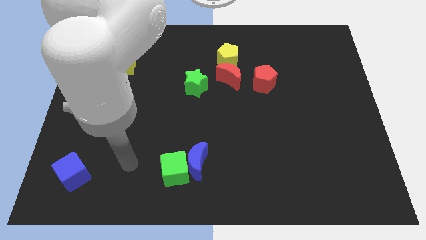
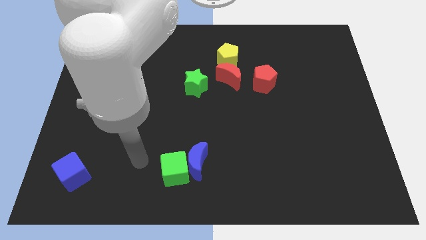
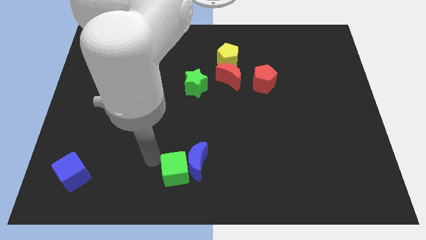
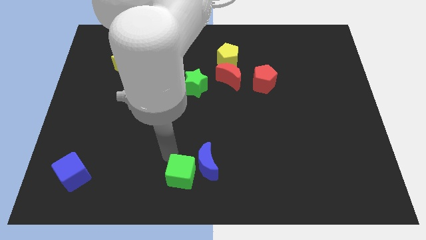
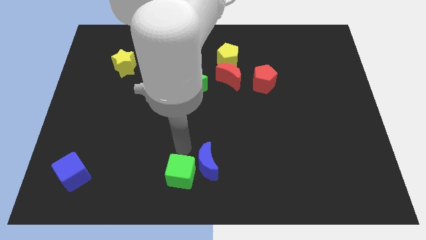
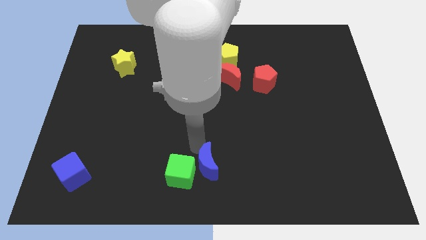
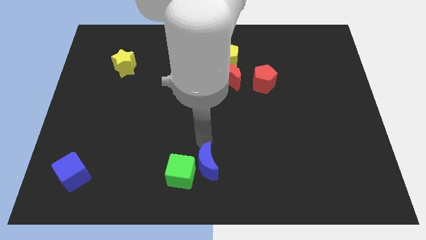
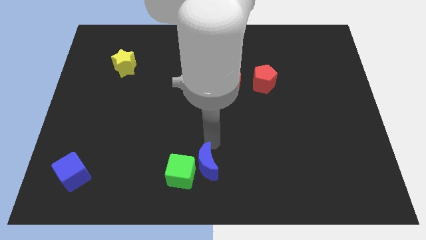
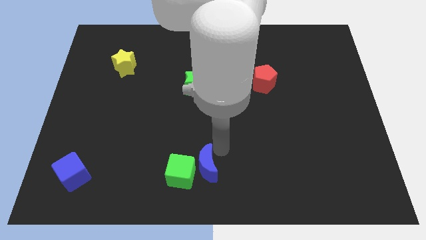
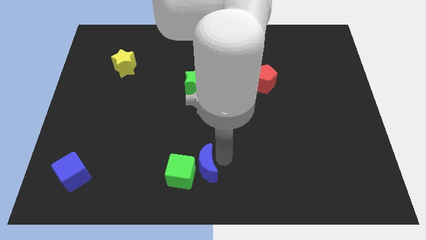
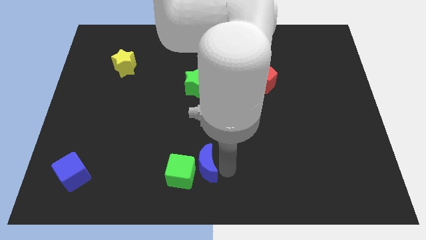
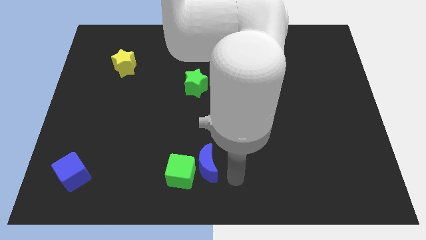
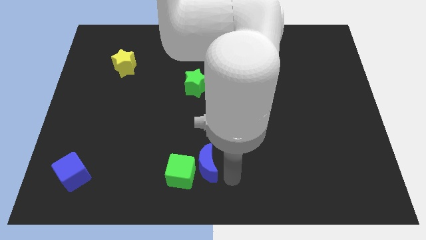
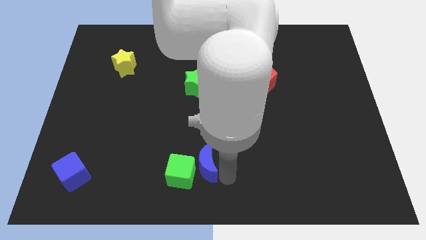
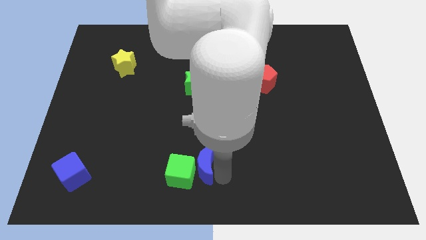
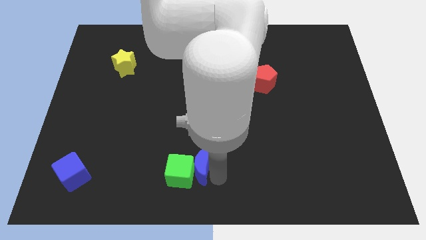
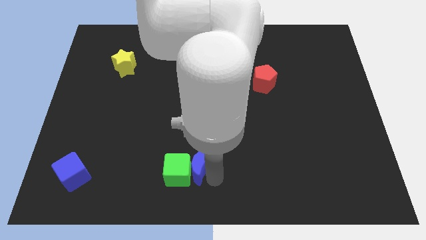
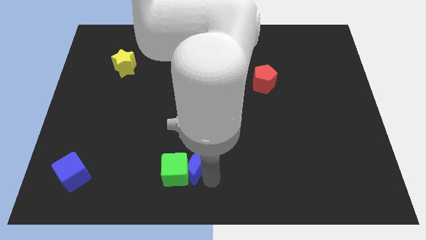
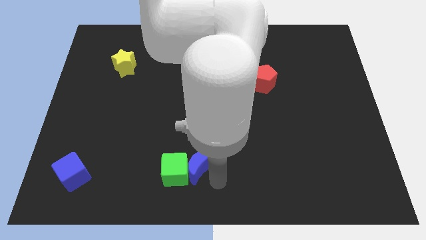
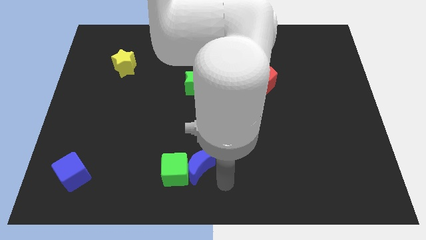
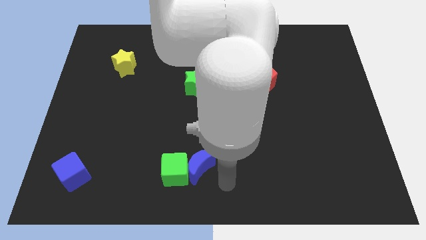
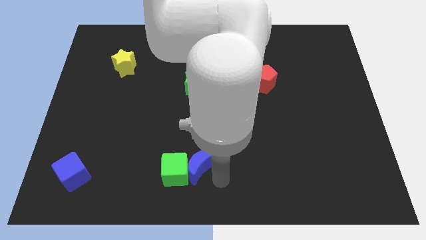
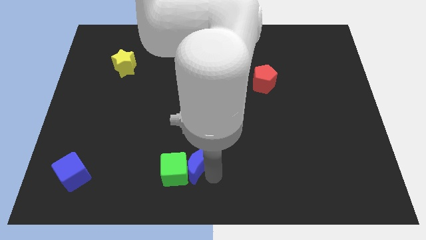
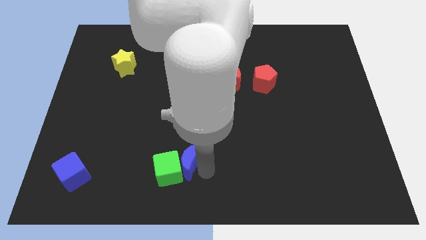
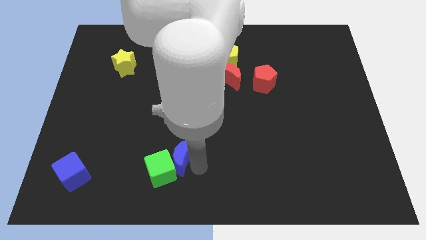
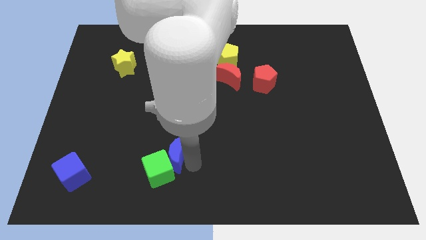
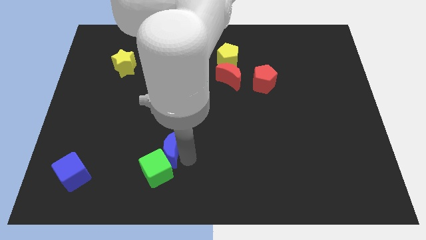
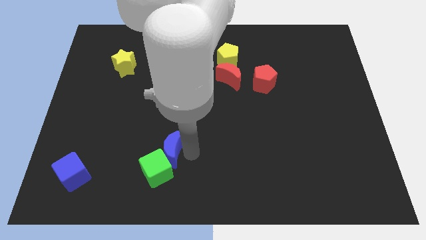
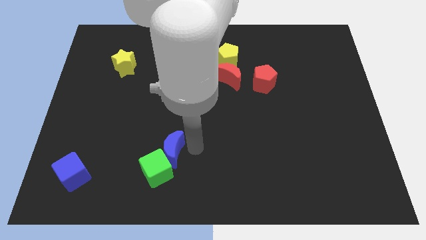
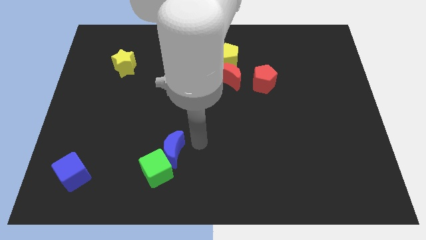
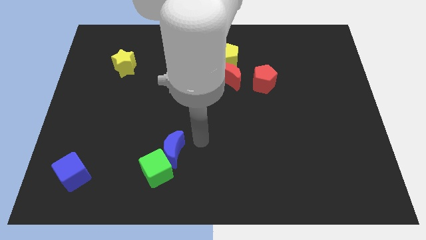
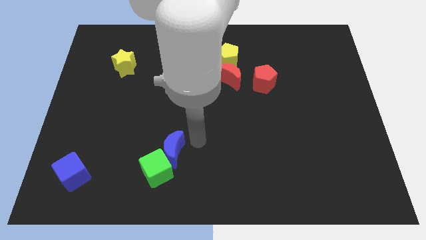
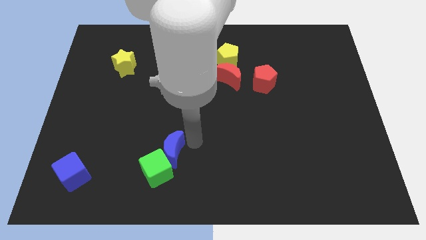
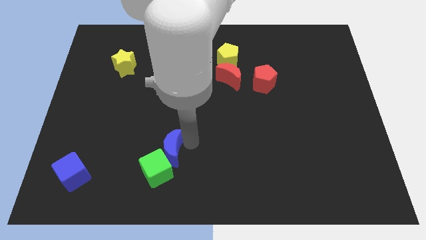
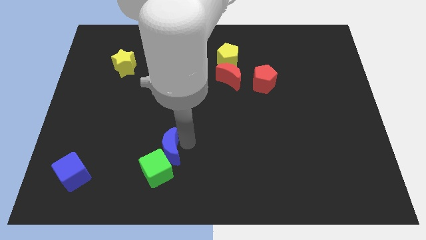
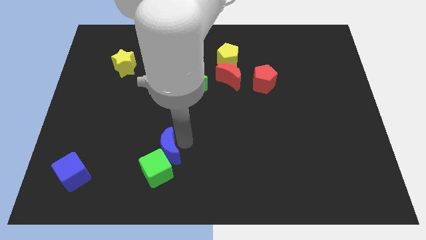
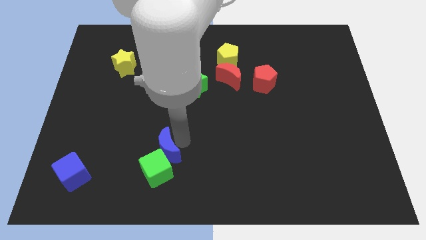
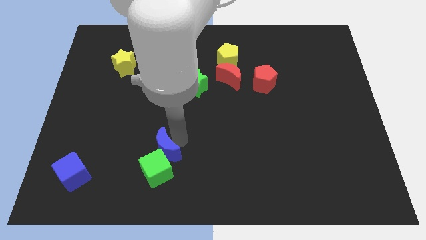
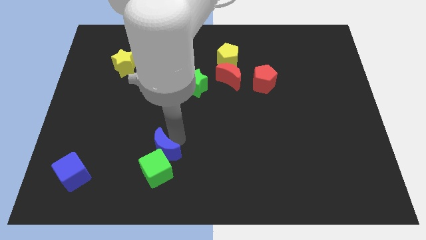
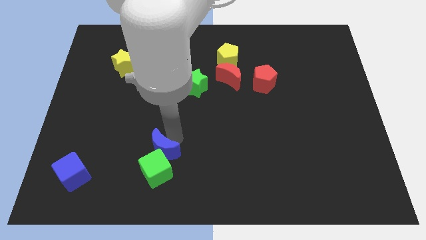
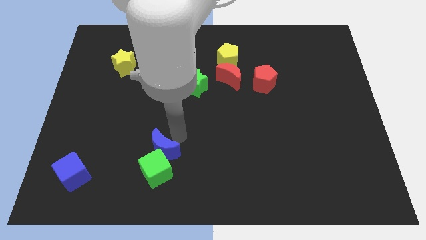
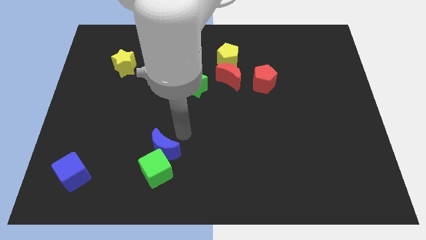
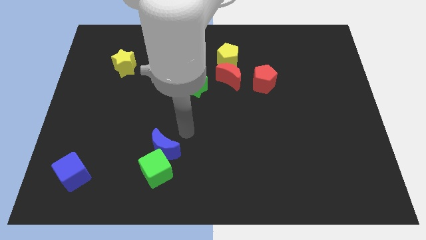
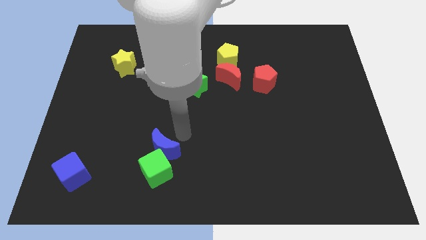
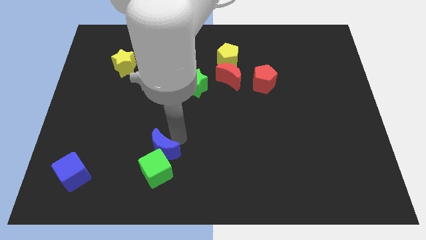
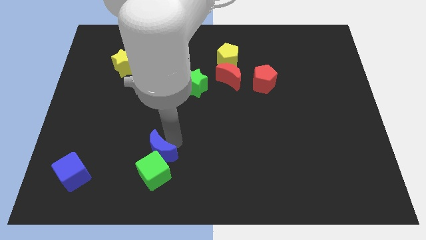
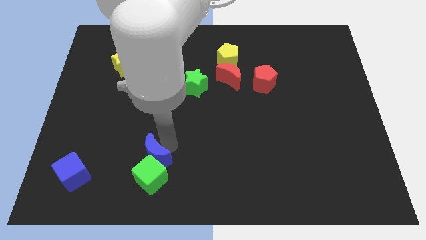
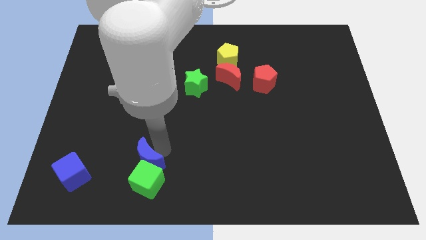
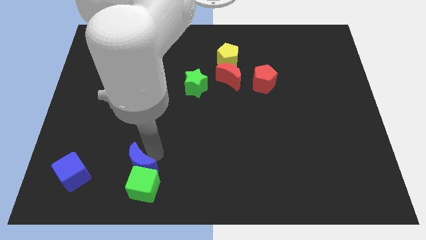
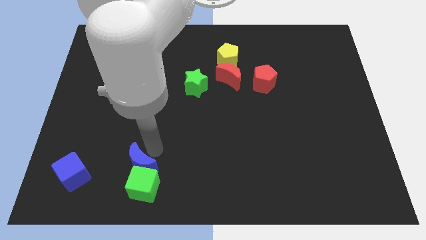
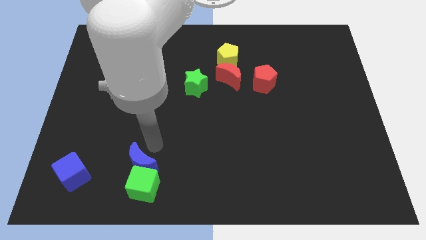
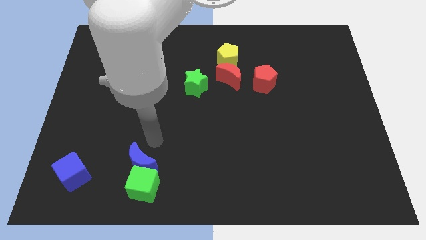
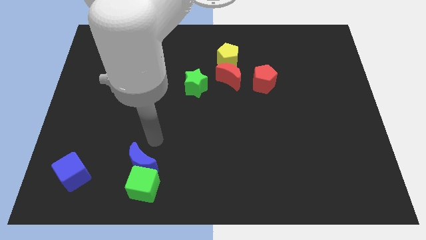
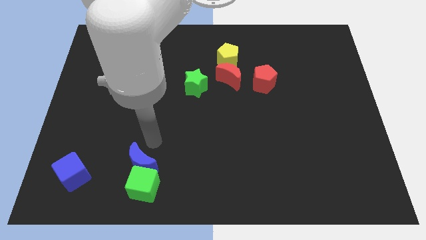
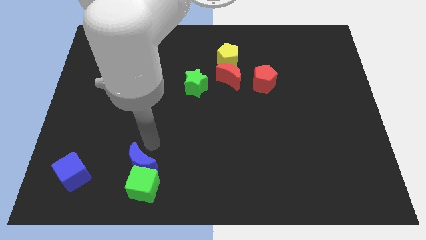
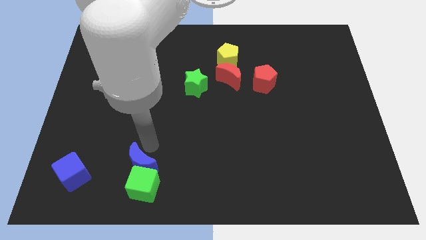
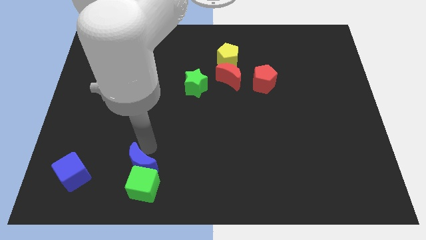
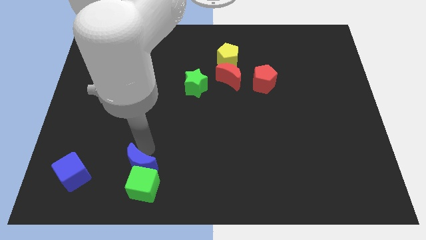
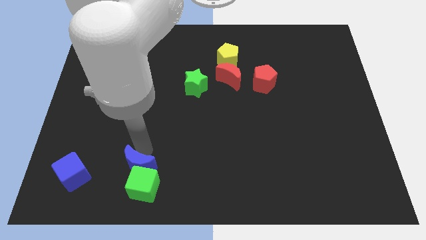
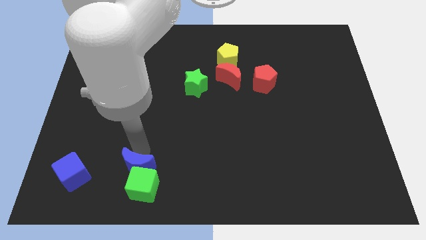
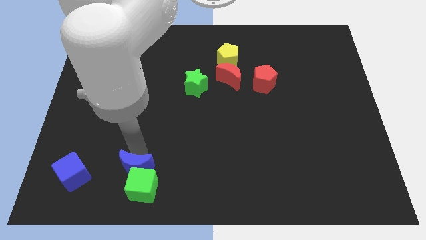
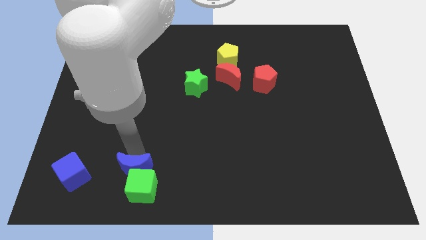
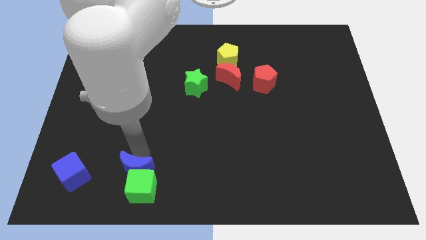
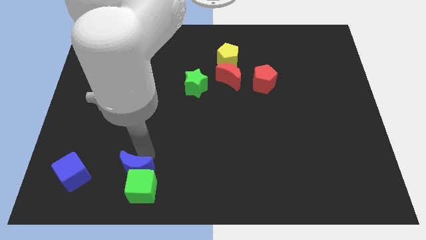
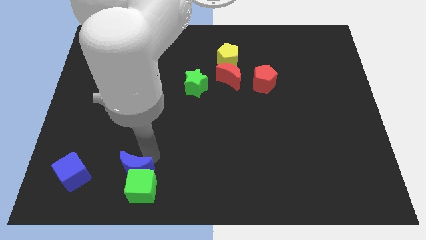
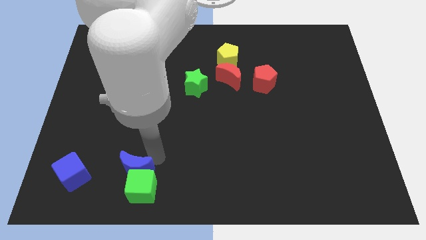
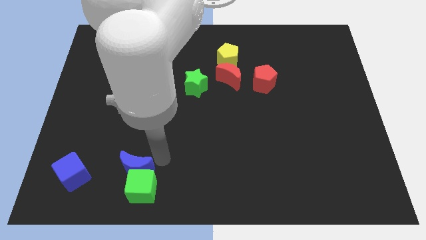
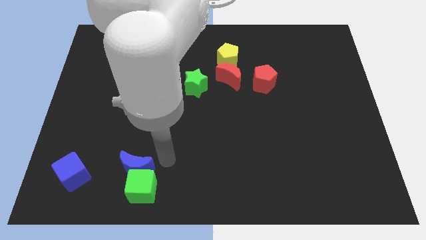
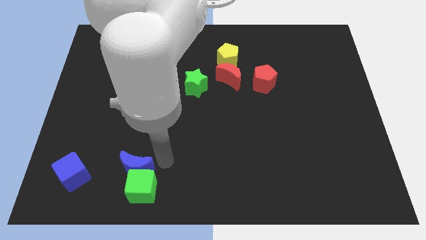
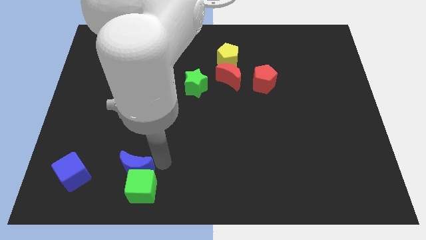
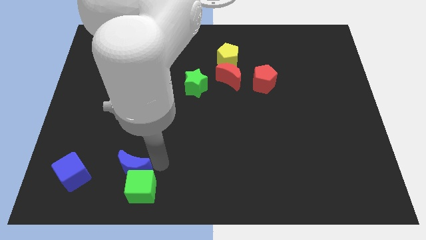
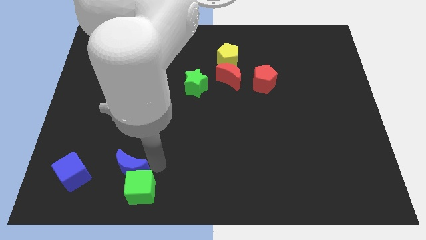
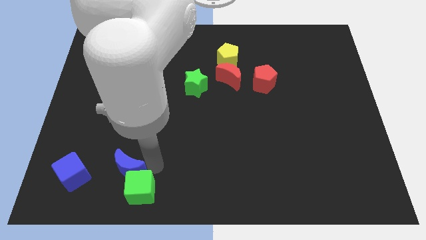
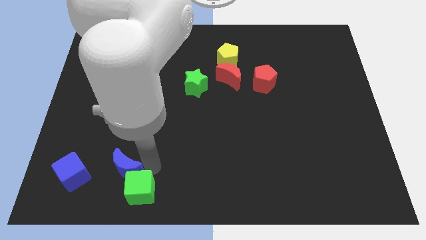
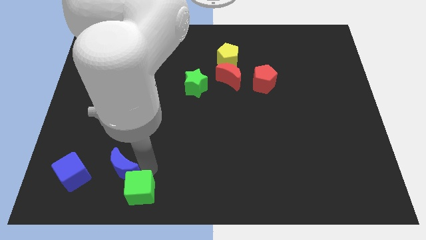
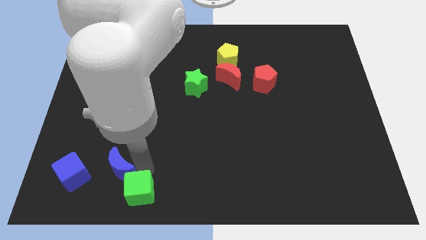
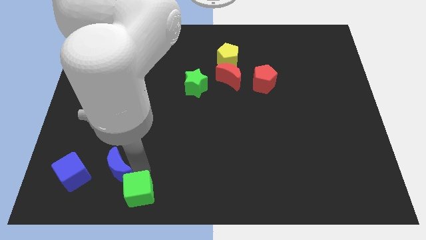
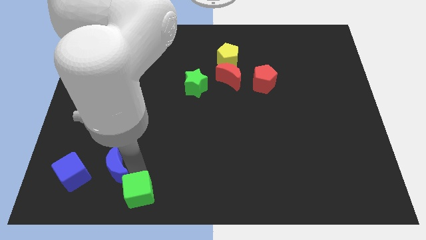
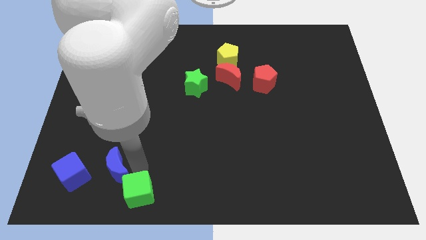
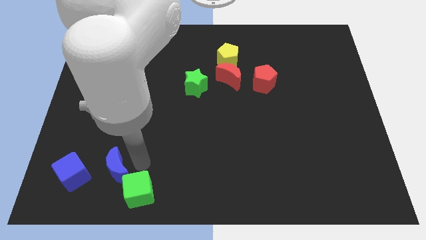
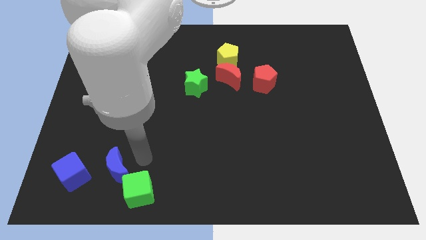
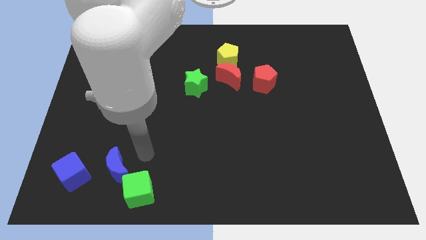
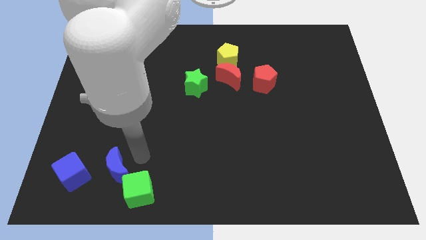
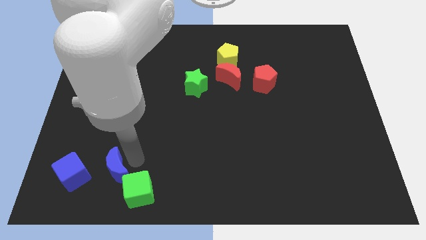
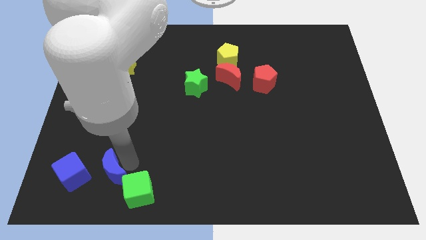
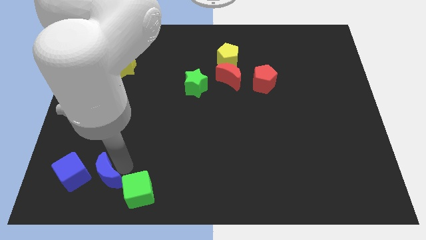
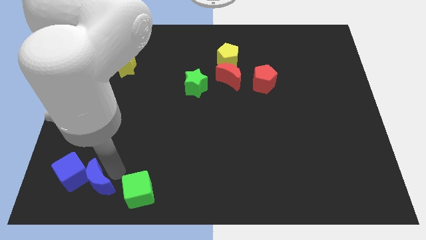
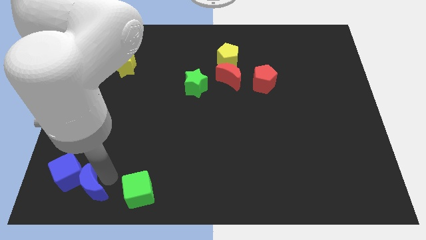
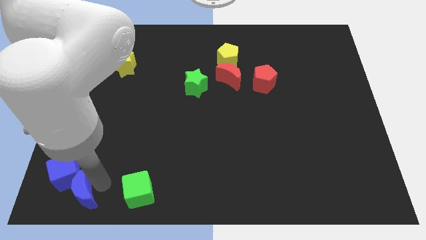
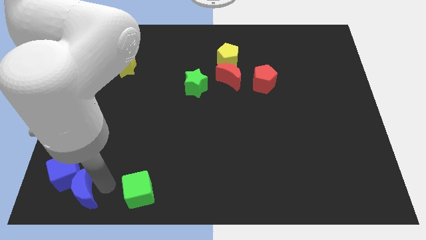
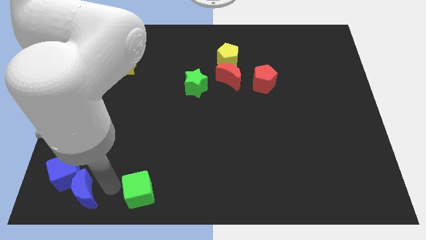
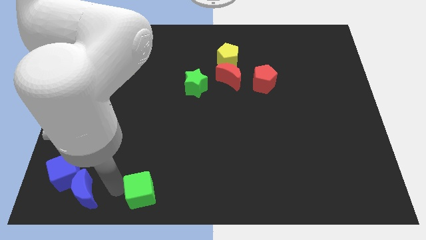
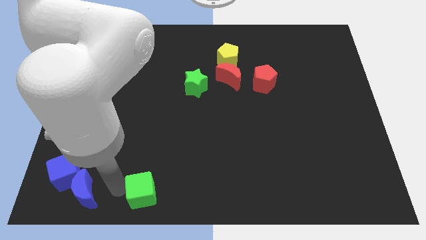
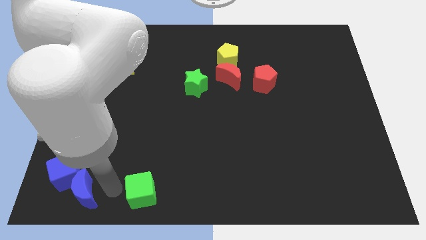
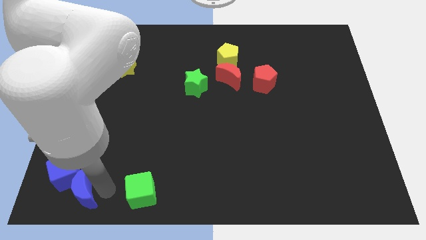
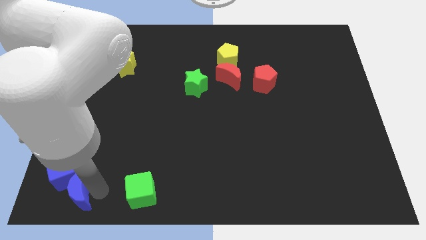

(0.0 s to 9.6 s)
move the blue moon to the bottom left
